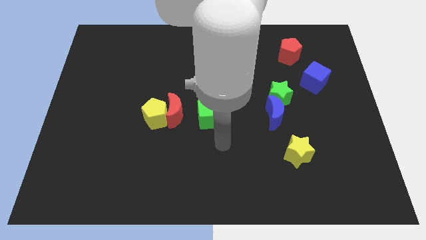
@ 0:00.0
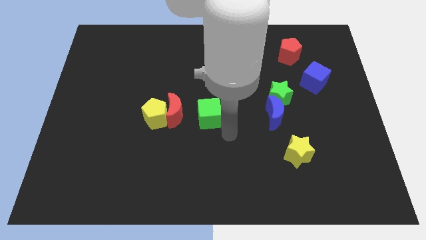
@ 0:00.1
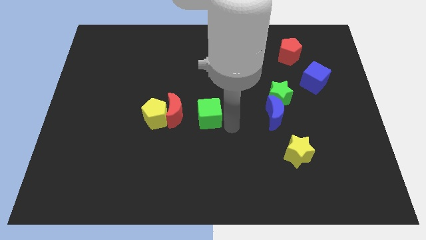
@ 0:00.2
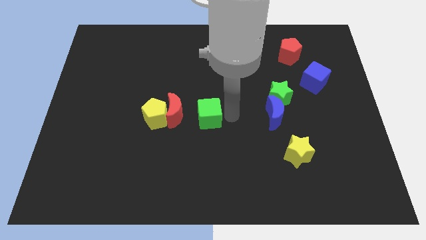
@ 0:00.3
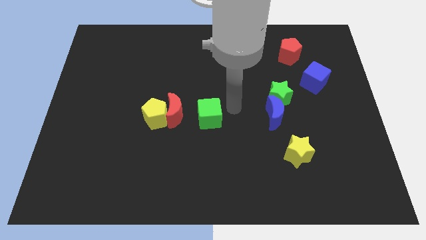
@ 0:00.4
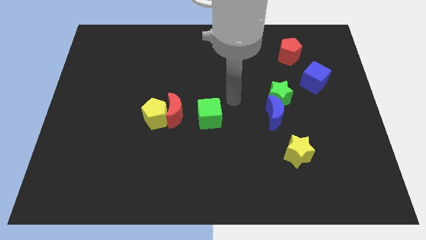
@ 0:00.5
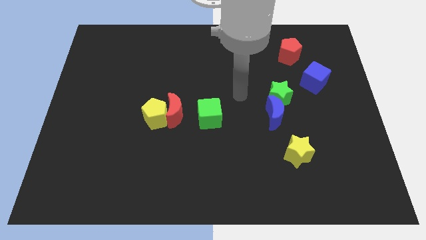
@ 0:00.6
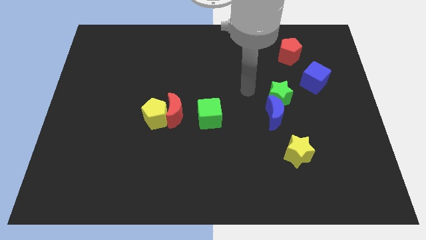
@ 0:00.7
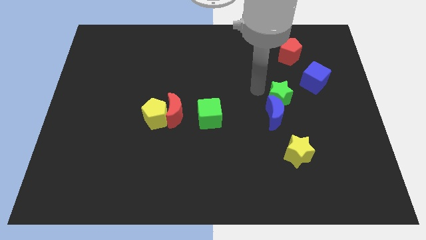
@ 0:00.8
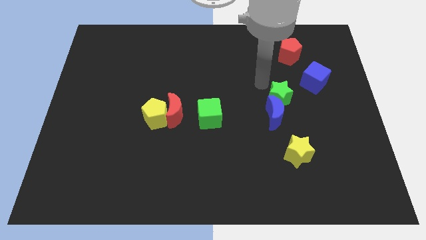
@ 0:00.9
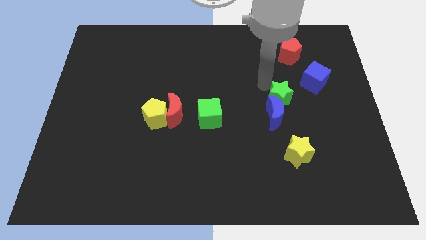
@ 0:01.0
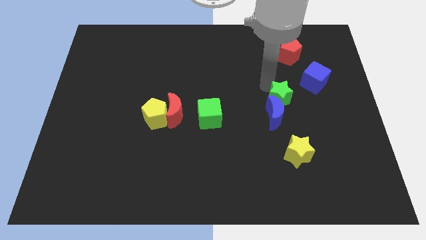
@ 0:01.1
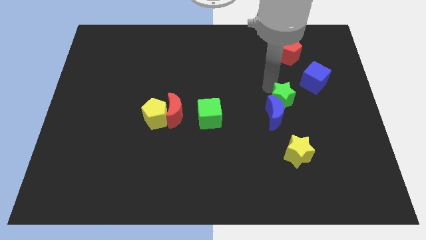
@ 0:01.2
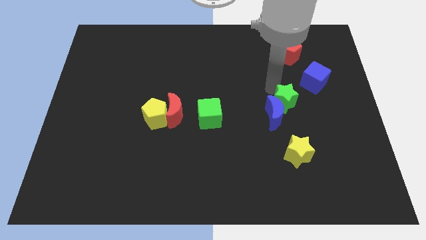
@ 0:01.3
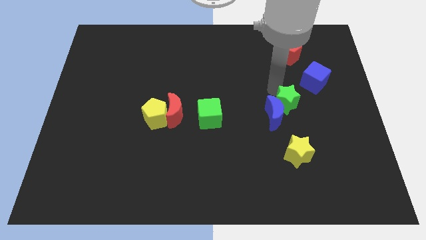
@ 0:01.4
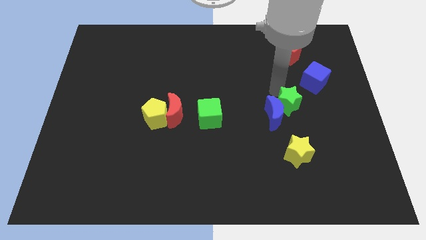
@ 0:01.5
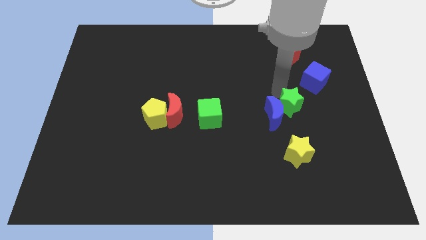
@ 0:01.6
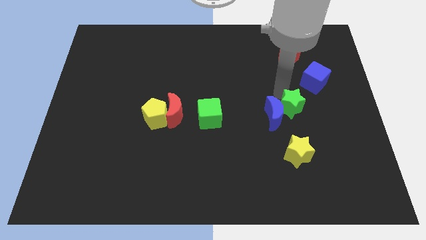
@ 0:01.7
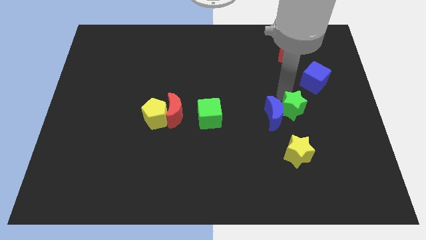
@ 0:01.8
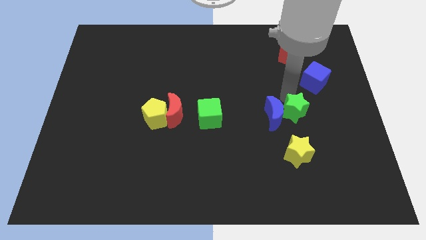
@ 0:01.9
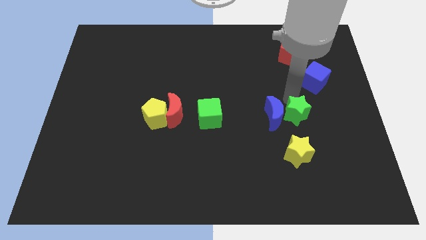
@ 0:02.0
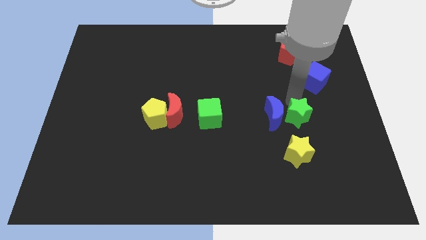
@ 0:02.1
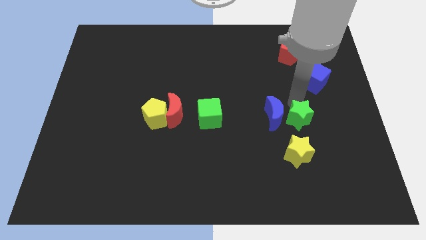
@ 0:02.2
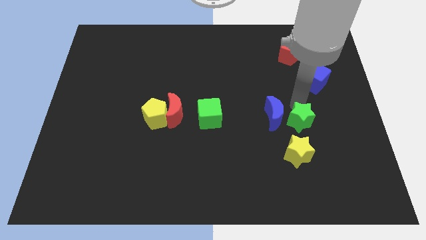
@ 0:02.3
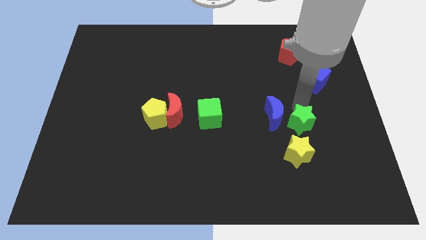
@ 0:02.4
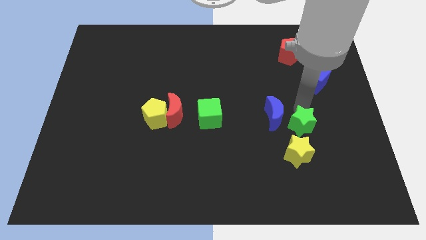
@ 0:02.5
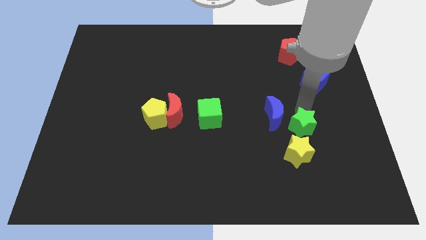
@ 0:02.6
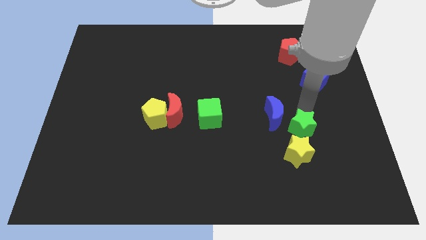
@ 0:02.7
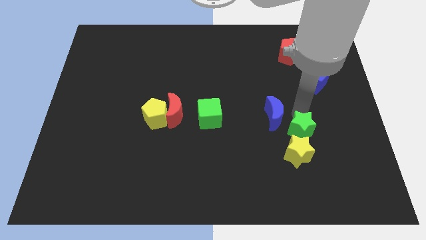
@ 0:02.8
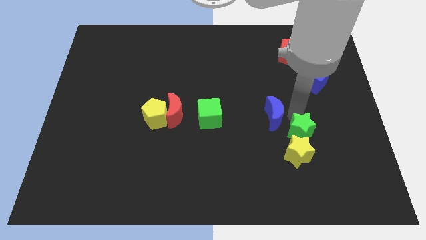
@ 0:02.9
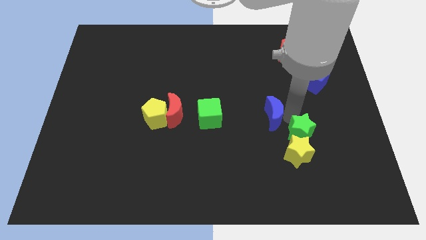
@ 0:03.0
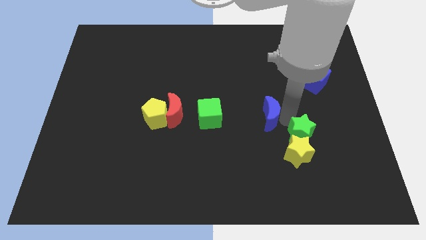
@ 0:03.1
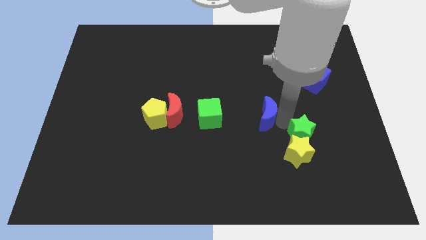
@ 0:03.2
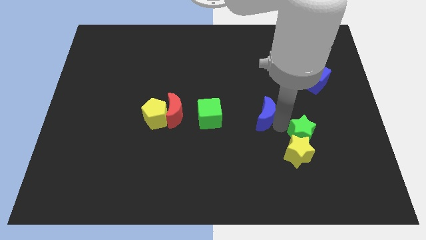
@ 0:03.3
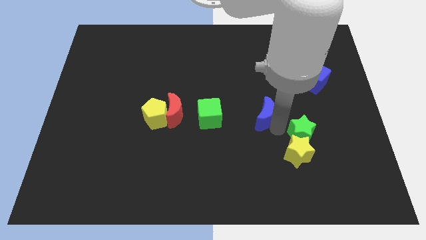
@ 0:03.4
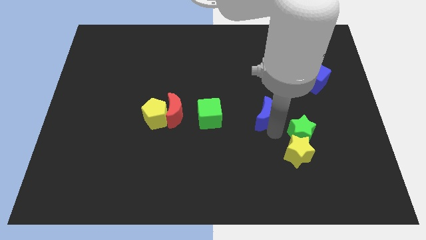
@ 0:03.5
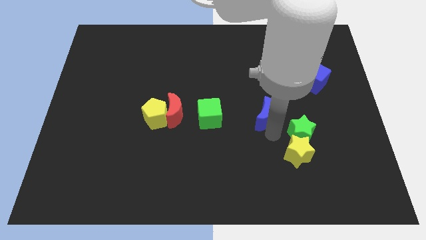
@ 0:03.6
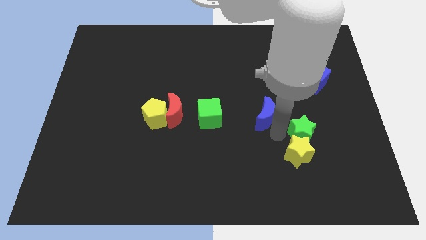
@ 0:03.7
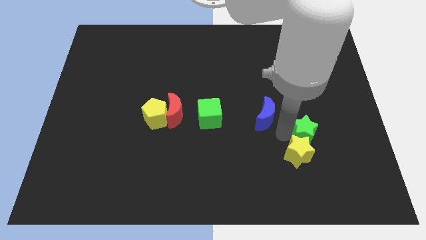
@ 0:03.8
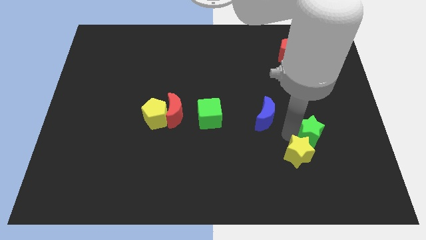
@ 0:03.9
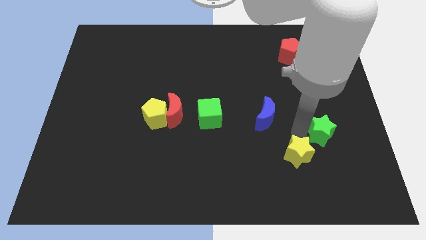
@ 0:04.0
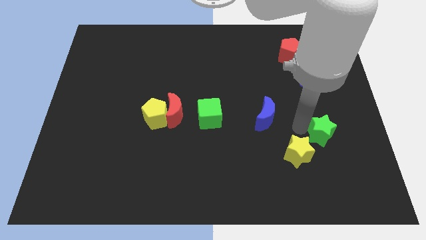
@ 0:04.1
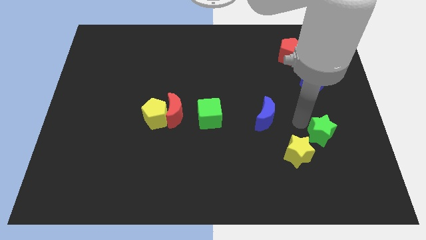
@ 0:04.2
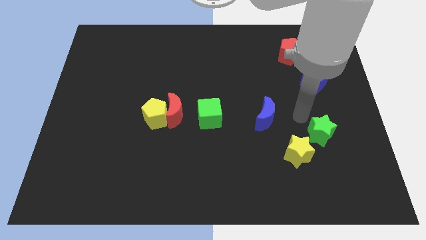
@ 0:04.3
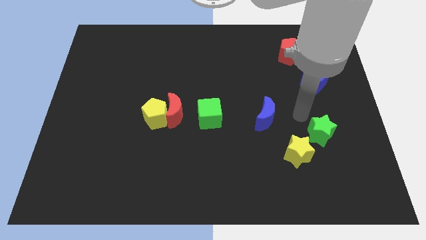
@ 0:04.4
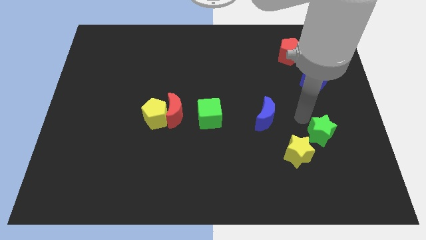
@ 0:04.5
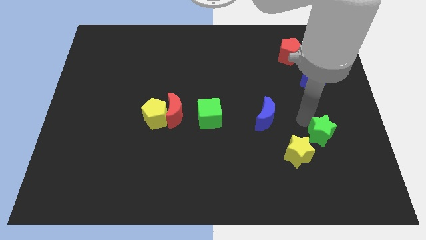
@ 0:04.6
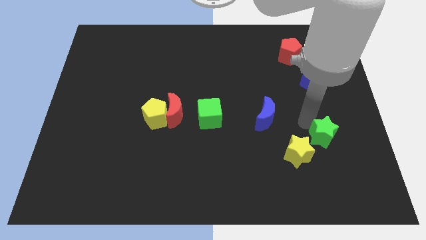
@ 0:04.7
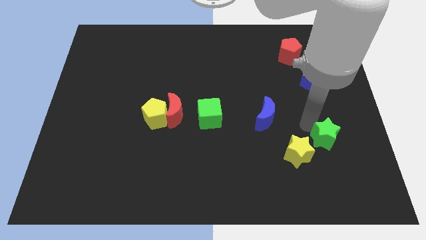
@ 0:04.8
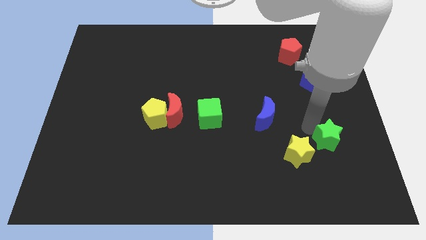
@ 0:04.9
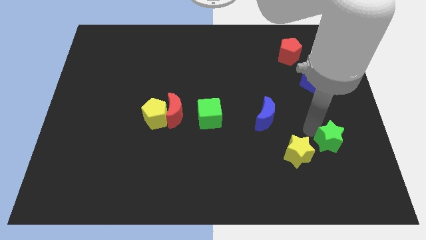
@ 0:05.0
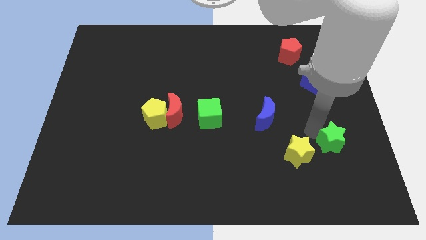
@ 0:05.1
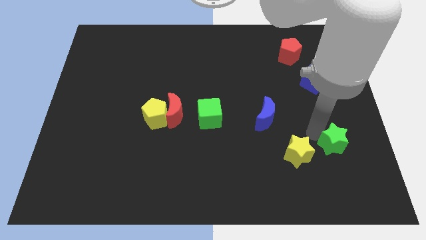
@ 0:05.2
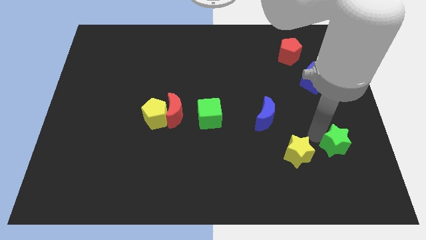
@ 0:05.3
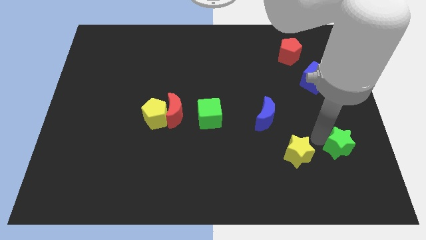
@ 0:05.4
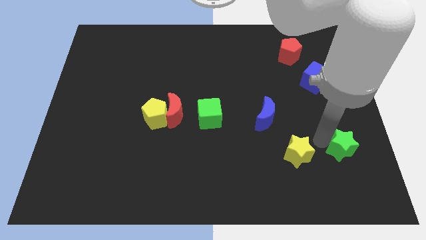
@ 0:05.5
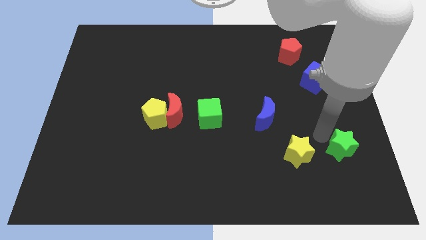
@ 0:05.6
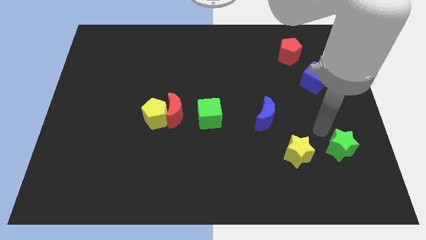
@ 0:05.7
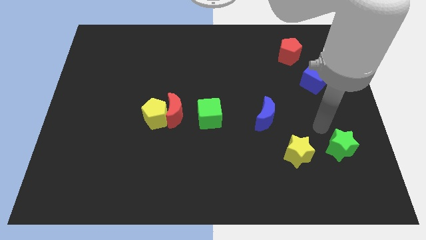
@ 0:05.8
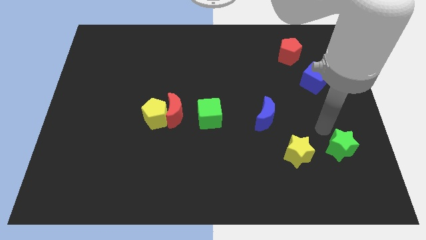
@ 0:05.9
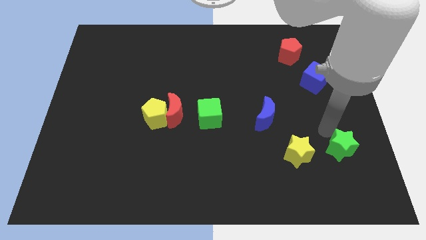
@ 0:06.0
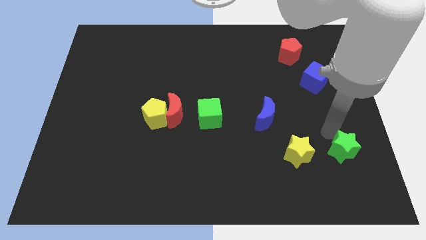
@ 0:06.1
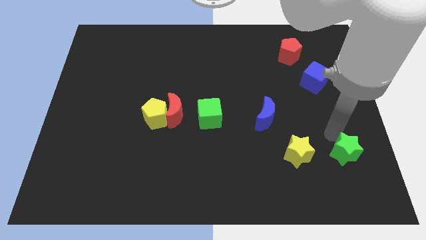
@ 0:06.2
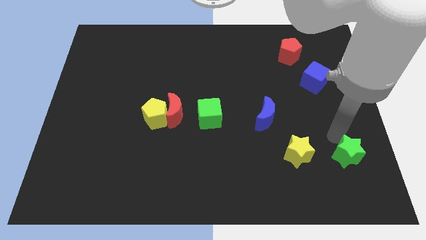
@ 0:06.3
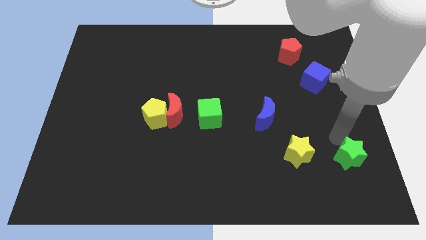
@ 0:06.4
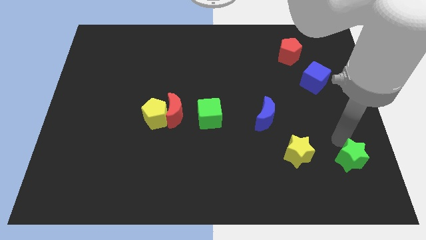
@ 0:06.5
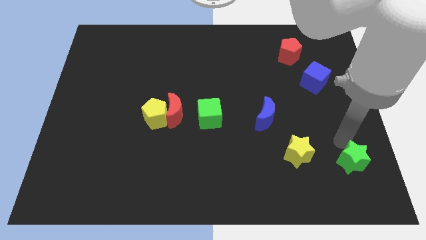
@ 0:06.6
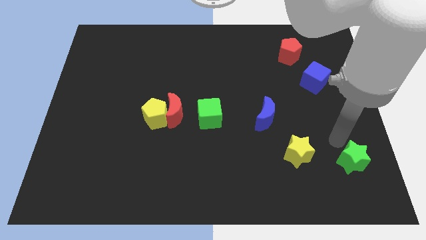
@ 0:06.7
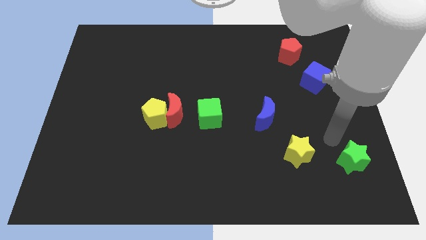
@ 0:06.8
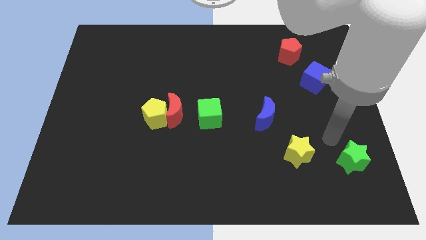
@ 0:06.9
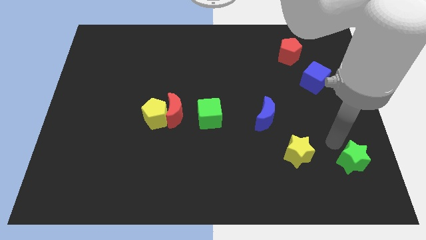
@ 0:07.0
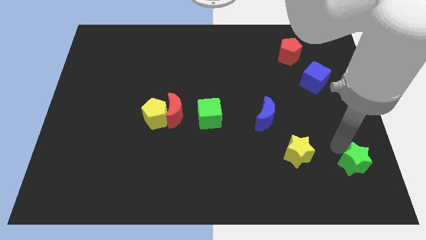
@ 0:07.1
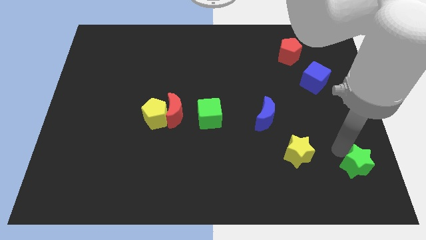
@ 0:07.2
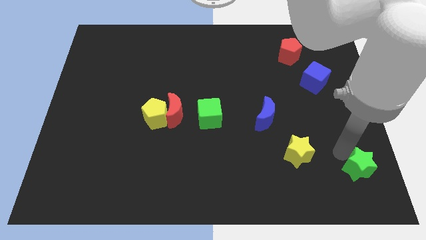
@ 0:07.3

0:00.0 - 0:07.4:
move the green star to the bottom right of the board
